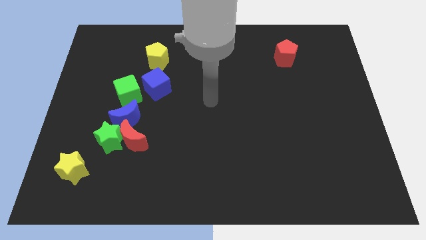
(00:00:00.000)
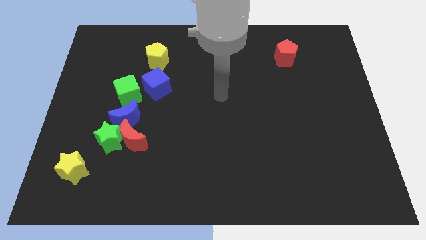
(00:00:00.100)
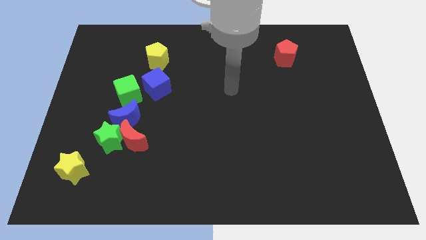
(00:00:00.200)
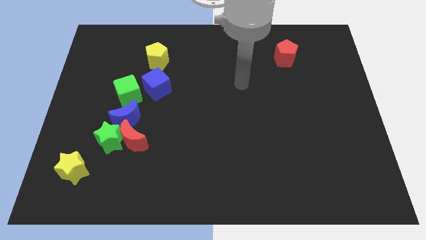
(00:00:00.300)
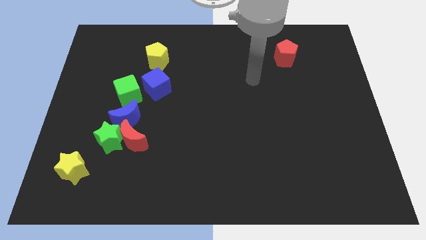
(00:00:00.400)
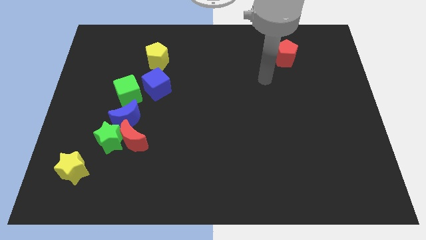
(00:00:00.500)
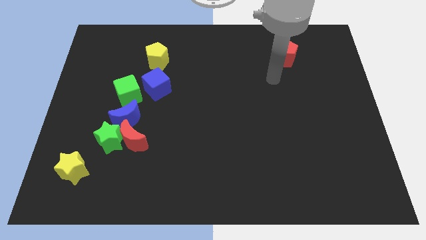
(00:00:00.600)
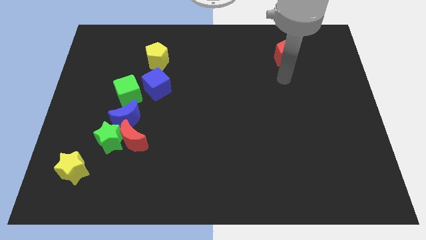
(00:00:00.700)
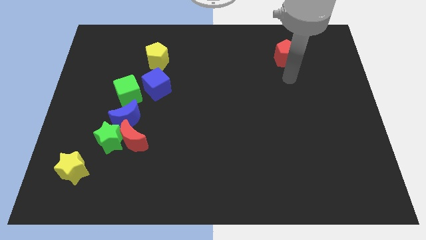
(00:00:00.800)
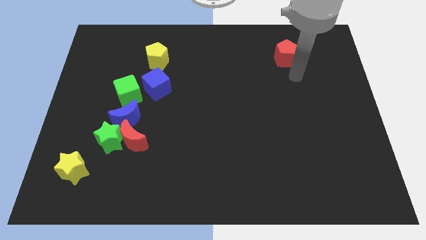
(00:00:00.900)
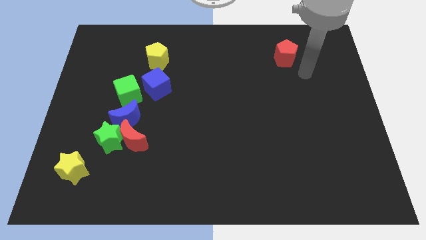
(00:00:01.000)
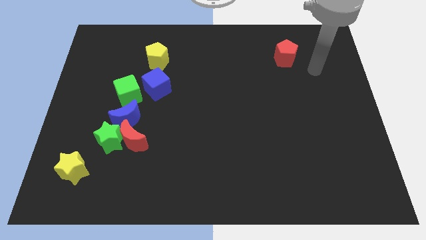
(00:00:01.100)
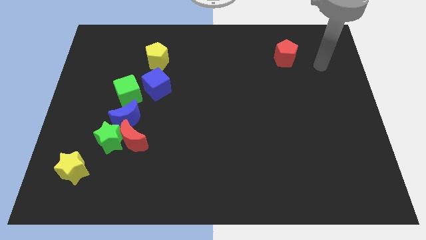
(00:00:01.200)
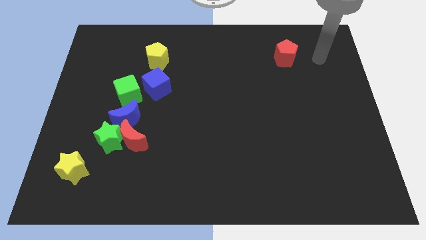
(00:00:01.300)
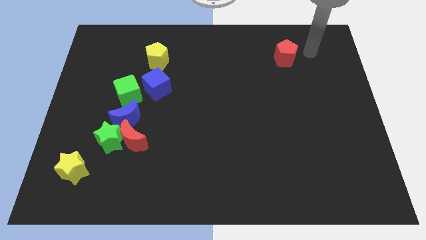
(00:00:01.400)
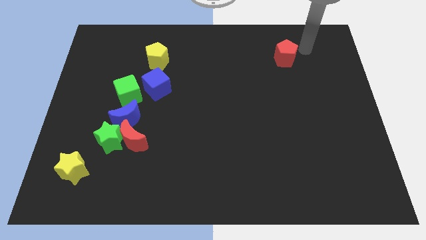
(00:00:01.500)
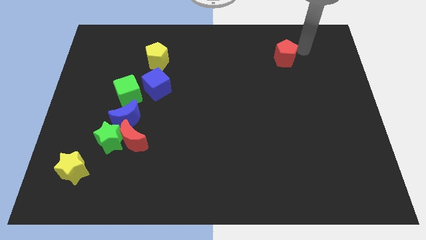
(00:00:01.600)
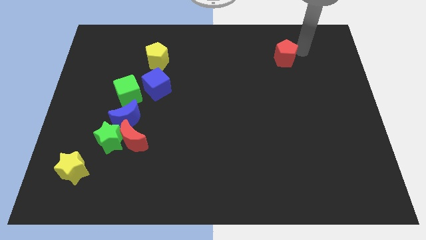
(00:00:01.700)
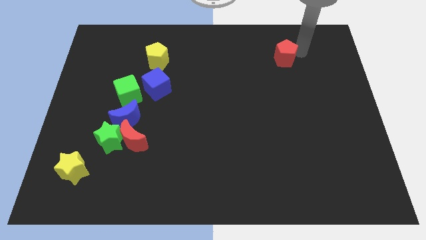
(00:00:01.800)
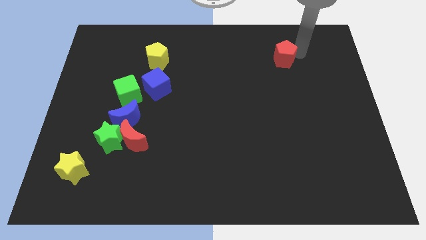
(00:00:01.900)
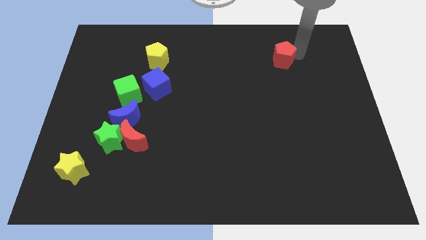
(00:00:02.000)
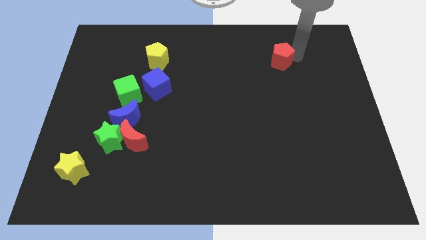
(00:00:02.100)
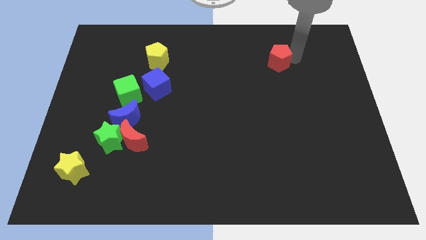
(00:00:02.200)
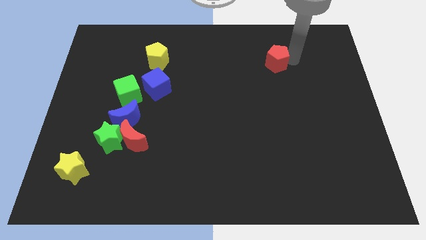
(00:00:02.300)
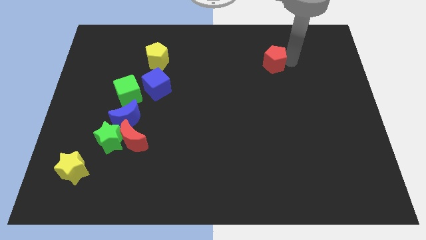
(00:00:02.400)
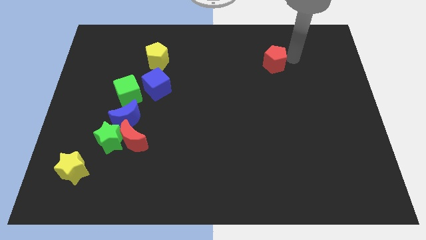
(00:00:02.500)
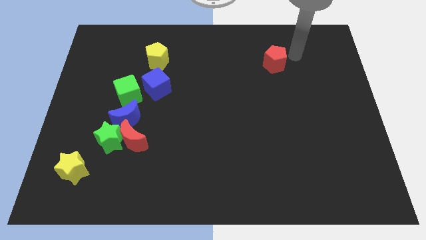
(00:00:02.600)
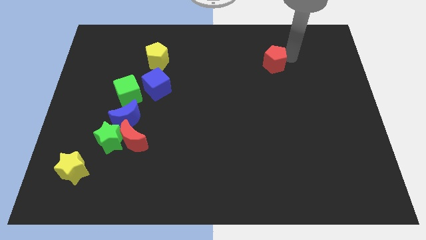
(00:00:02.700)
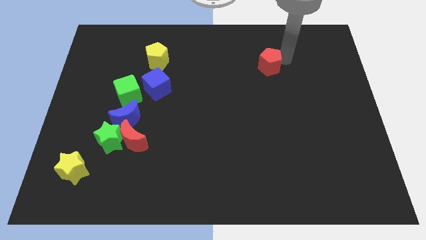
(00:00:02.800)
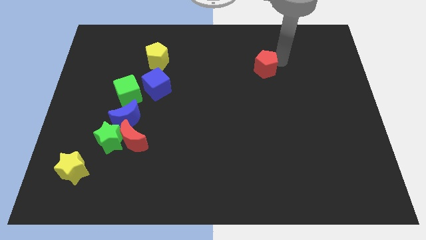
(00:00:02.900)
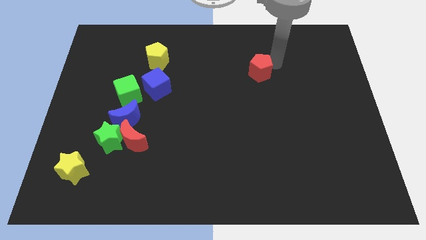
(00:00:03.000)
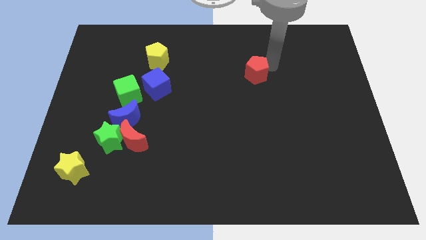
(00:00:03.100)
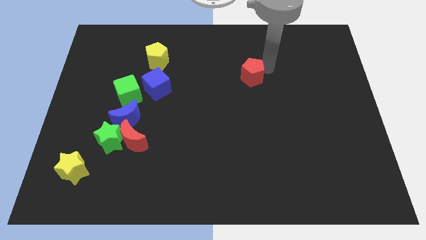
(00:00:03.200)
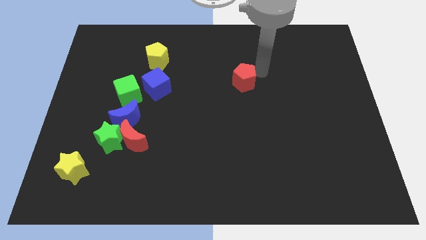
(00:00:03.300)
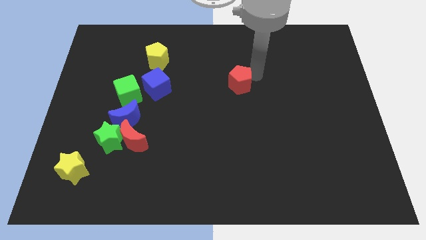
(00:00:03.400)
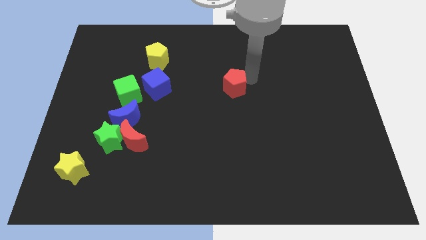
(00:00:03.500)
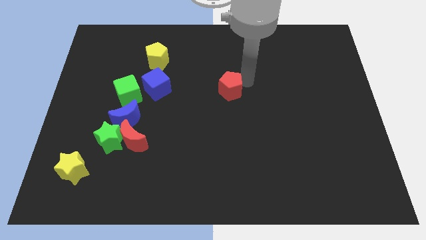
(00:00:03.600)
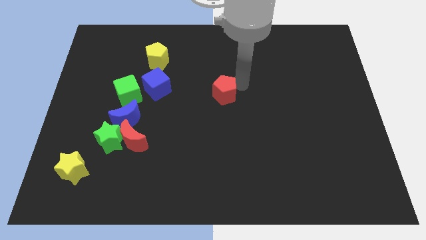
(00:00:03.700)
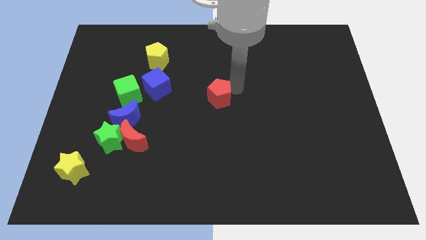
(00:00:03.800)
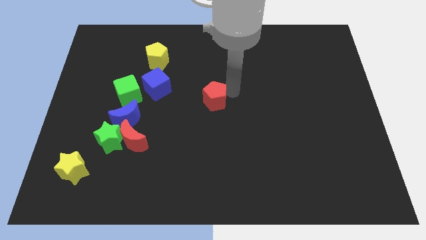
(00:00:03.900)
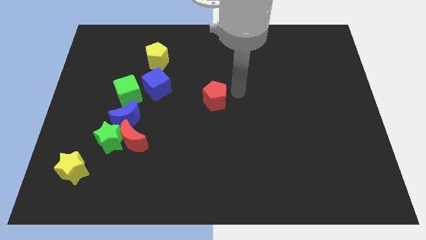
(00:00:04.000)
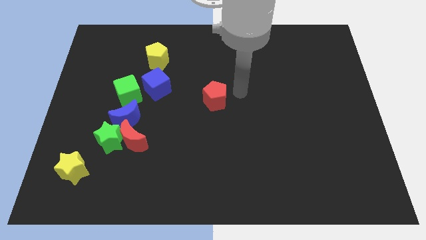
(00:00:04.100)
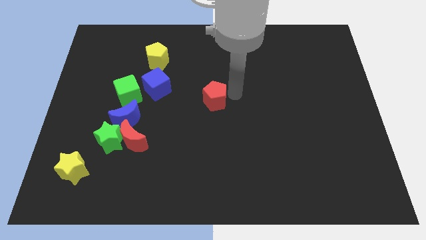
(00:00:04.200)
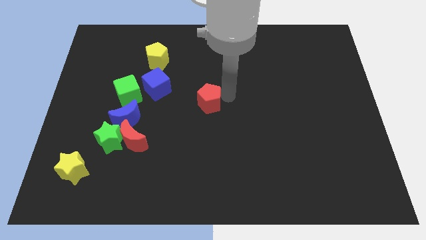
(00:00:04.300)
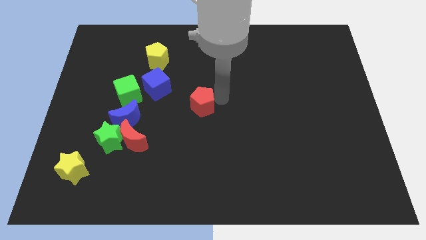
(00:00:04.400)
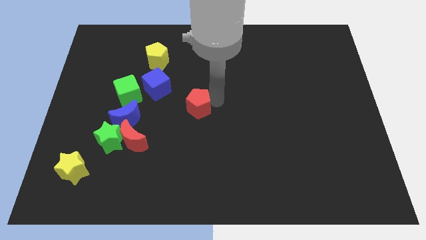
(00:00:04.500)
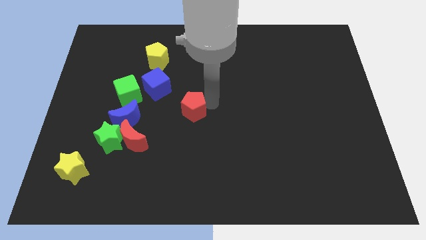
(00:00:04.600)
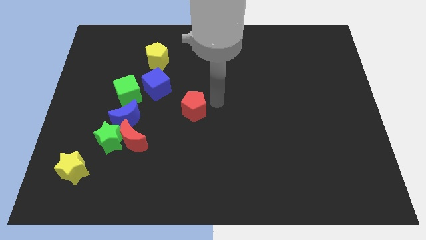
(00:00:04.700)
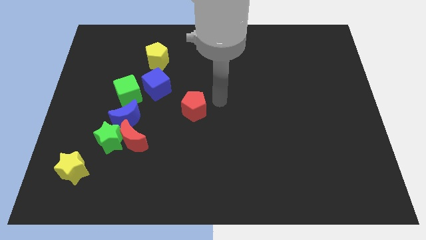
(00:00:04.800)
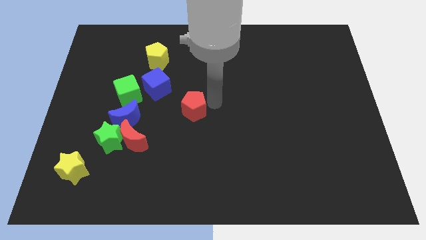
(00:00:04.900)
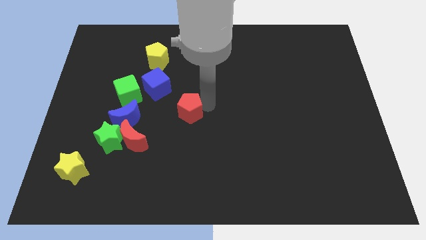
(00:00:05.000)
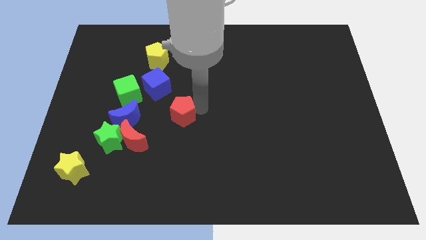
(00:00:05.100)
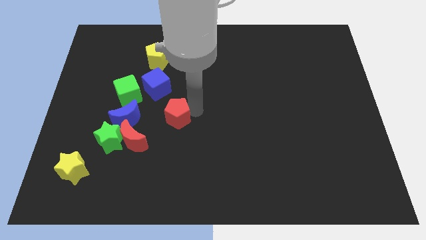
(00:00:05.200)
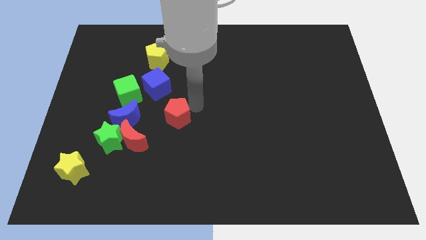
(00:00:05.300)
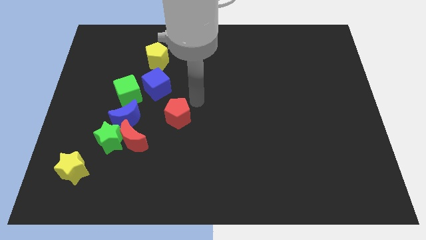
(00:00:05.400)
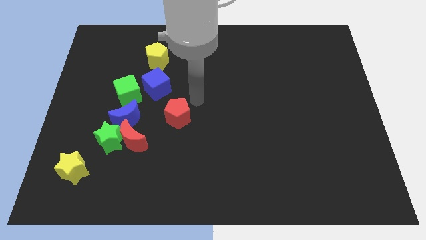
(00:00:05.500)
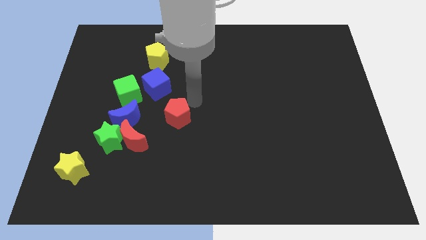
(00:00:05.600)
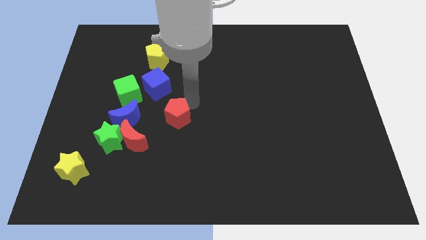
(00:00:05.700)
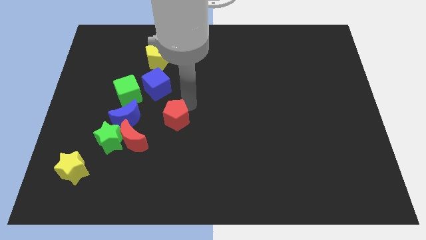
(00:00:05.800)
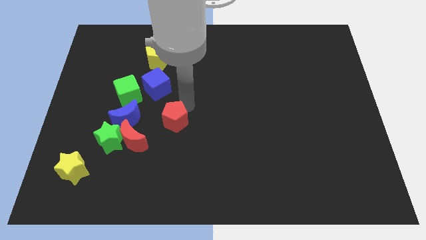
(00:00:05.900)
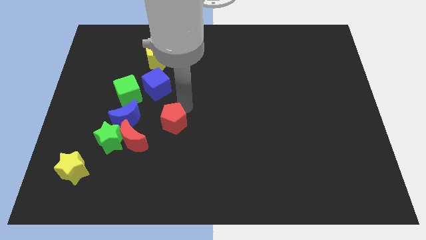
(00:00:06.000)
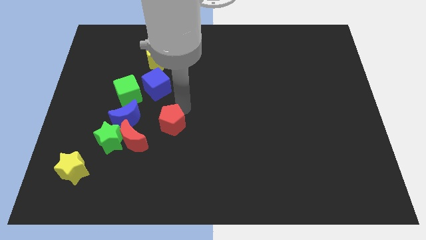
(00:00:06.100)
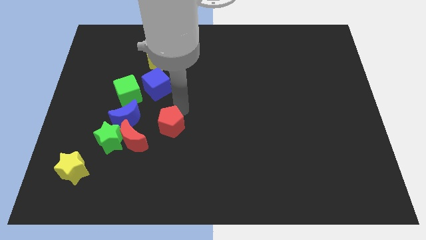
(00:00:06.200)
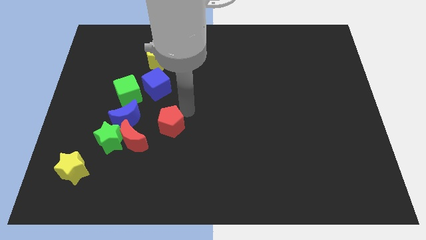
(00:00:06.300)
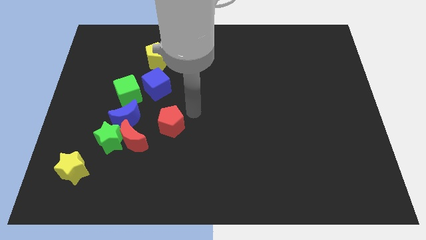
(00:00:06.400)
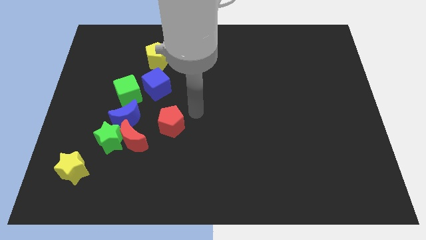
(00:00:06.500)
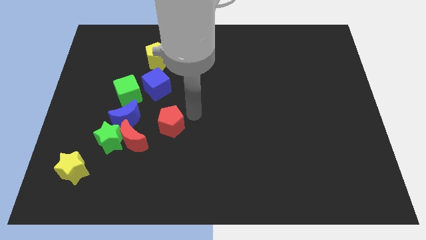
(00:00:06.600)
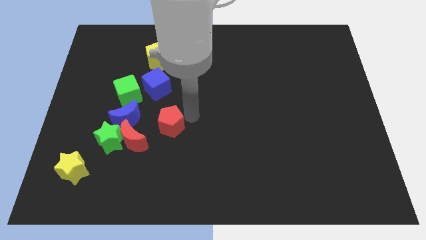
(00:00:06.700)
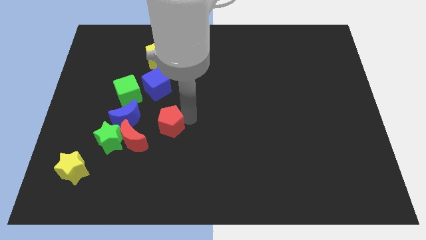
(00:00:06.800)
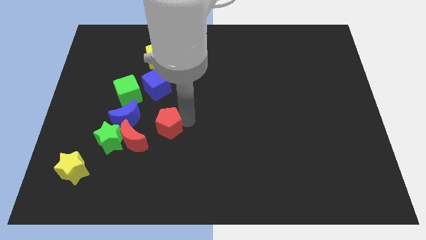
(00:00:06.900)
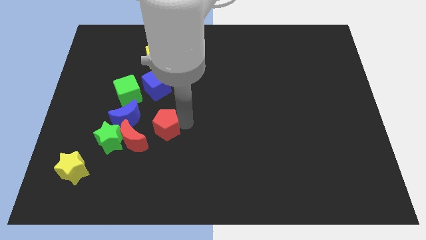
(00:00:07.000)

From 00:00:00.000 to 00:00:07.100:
move the red pentagon to the bottom right of the blue moon

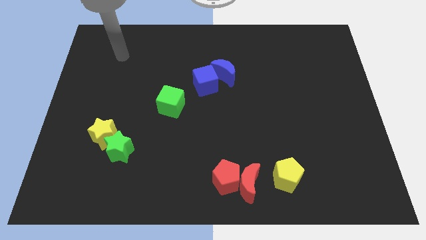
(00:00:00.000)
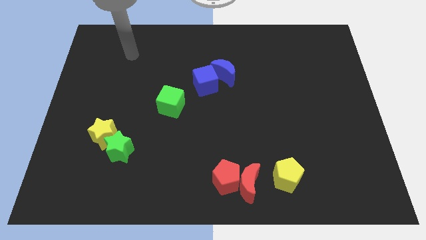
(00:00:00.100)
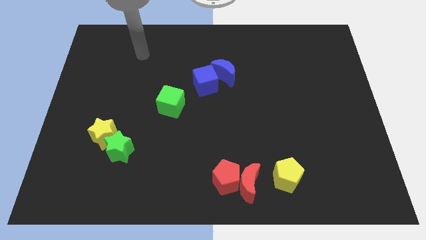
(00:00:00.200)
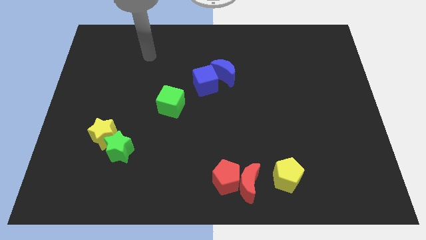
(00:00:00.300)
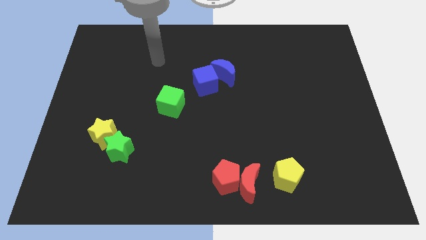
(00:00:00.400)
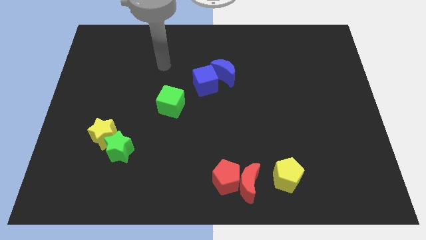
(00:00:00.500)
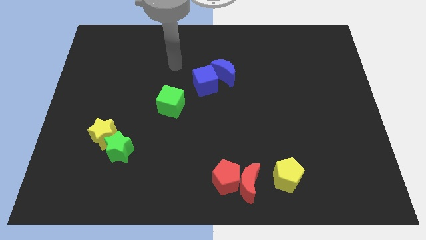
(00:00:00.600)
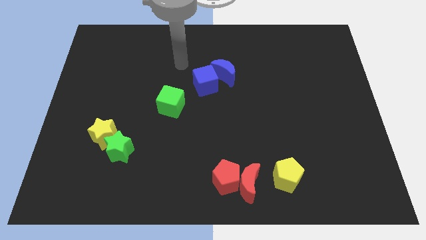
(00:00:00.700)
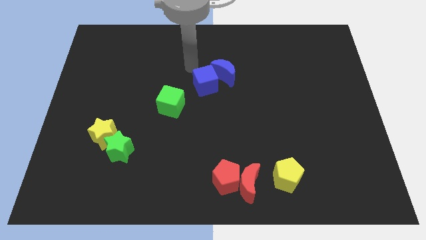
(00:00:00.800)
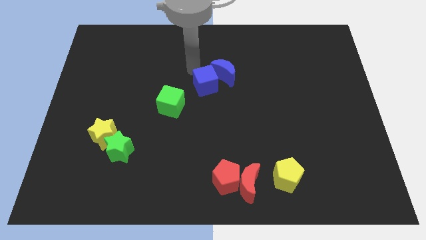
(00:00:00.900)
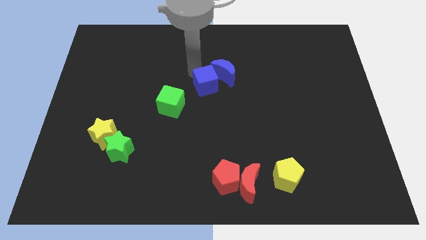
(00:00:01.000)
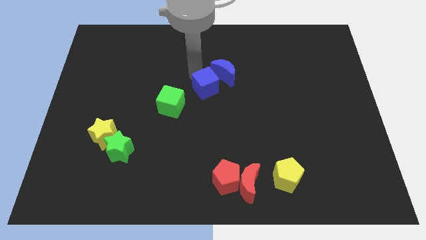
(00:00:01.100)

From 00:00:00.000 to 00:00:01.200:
move the blue cube below the blue moon
